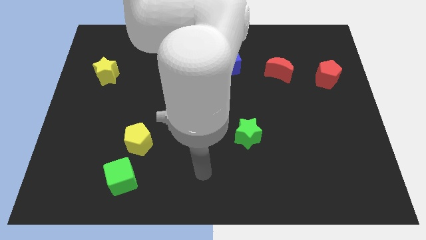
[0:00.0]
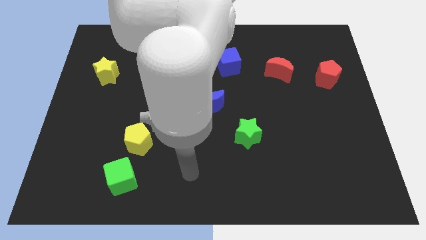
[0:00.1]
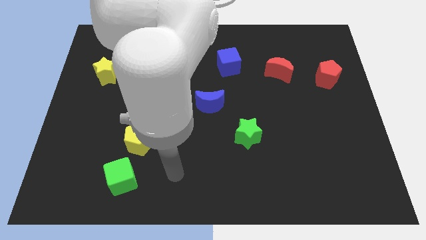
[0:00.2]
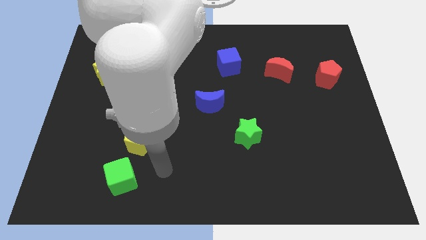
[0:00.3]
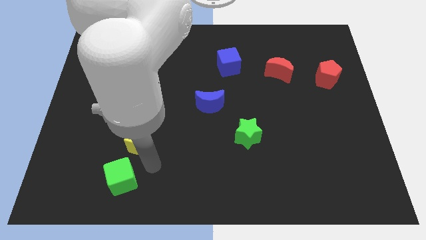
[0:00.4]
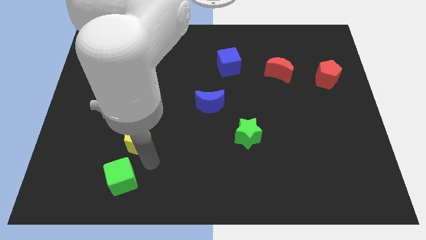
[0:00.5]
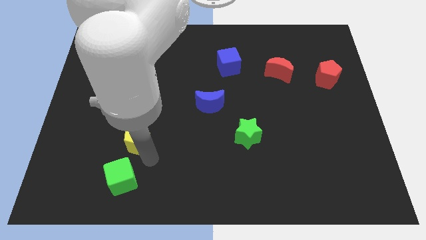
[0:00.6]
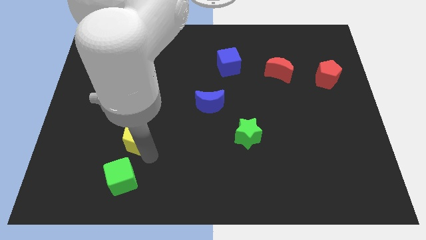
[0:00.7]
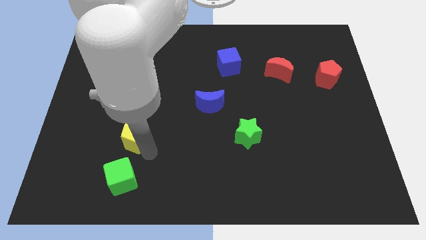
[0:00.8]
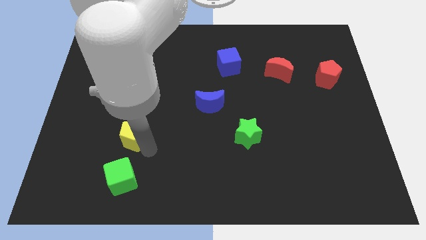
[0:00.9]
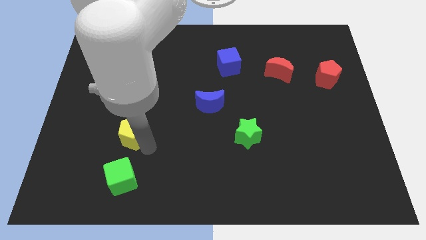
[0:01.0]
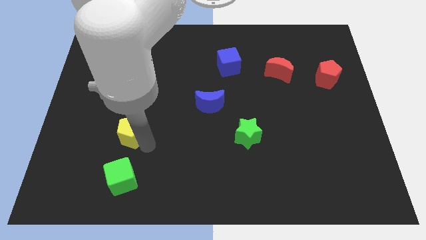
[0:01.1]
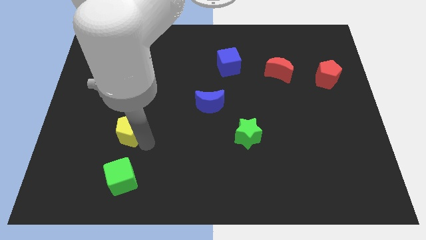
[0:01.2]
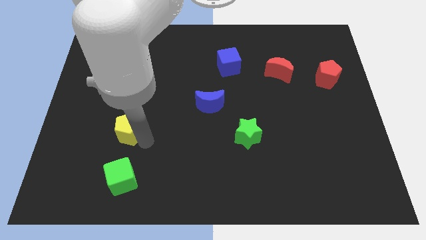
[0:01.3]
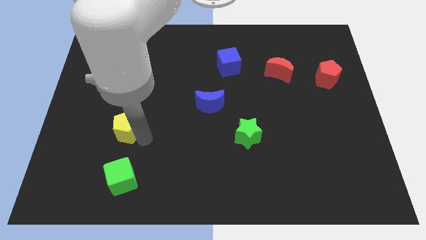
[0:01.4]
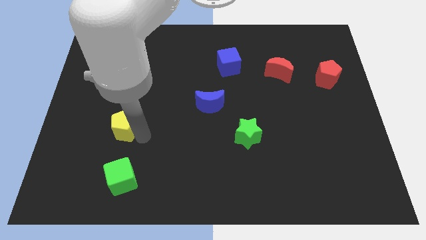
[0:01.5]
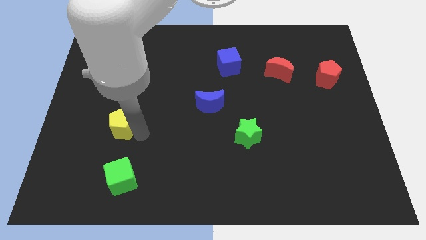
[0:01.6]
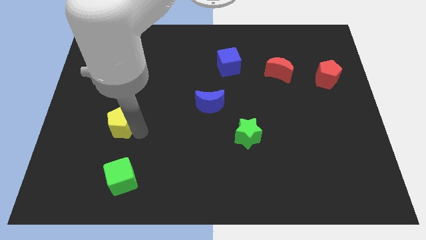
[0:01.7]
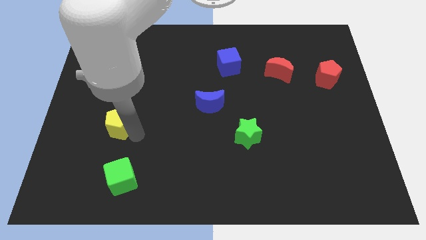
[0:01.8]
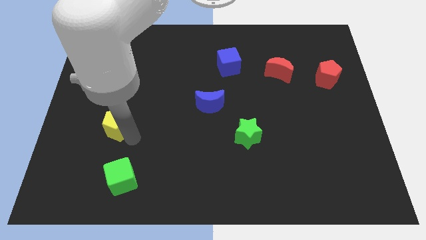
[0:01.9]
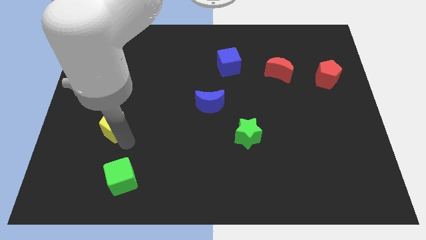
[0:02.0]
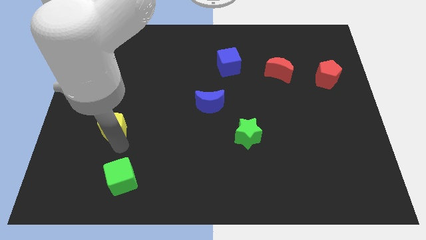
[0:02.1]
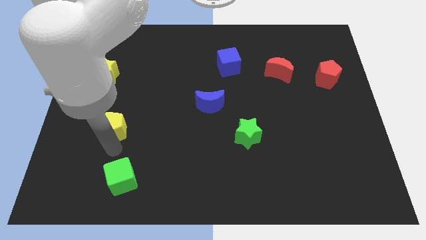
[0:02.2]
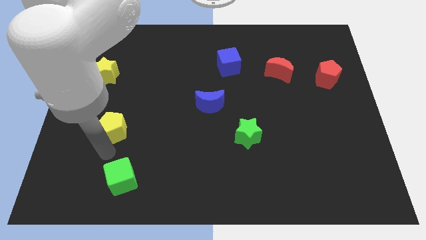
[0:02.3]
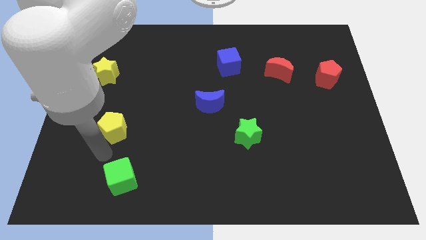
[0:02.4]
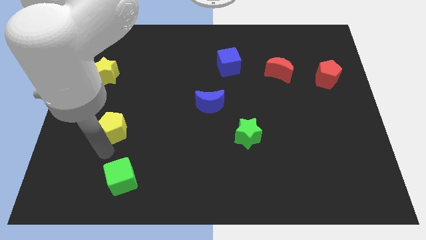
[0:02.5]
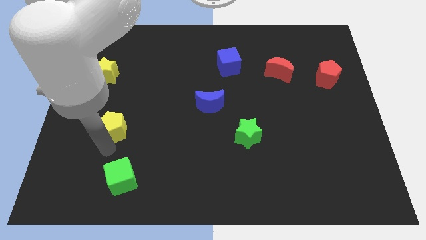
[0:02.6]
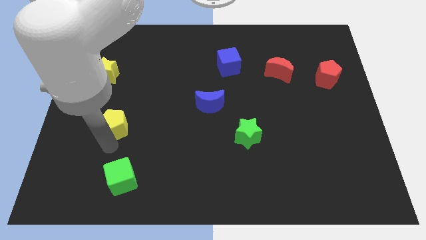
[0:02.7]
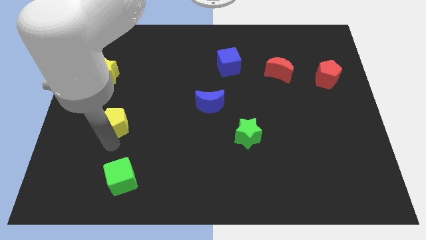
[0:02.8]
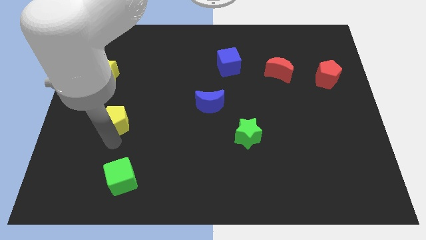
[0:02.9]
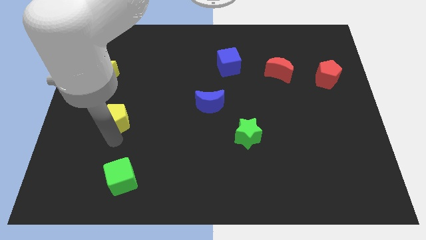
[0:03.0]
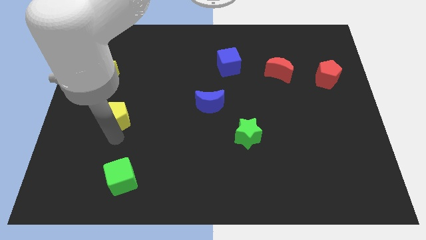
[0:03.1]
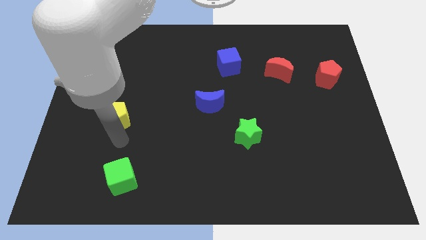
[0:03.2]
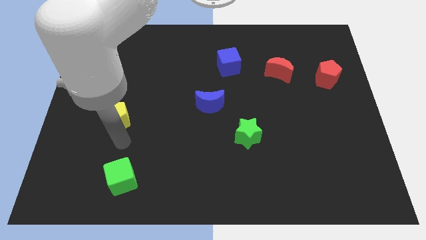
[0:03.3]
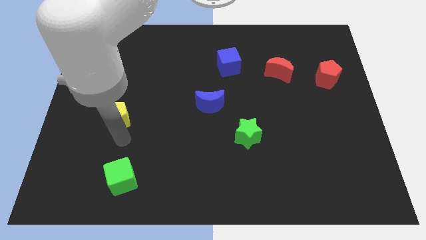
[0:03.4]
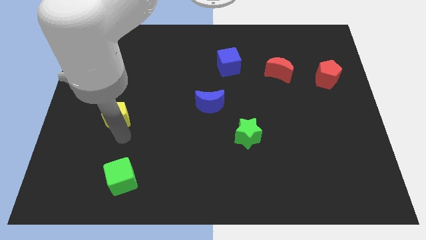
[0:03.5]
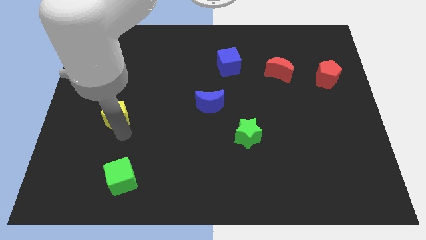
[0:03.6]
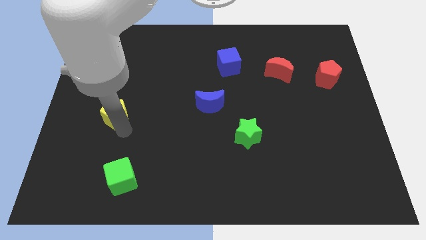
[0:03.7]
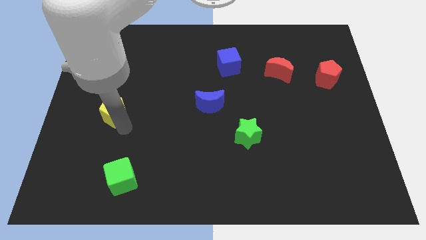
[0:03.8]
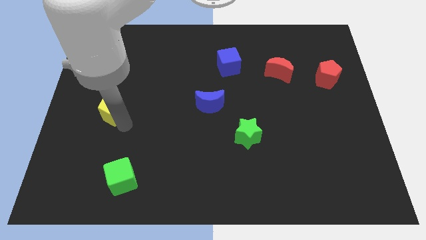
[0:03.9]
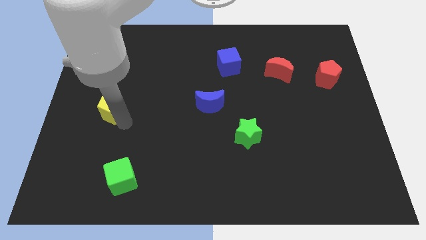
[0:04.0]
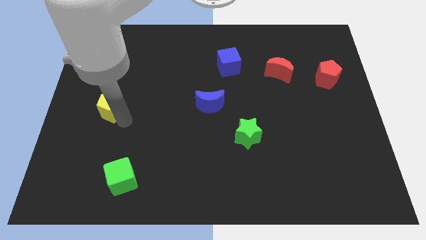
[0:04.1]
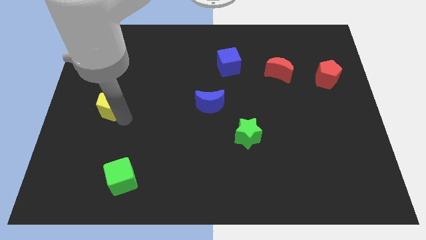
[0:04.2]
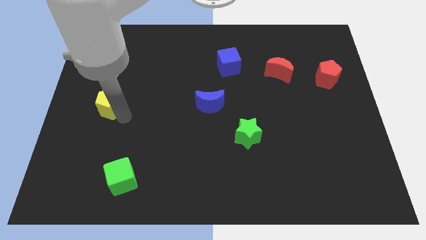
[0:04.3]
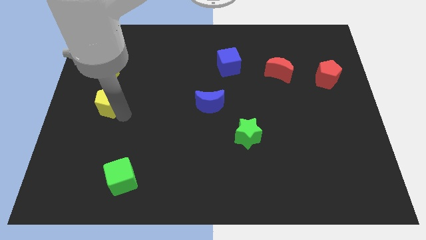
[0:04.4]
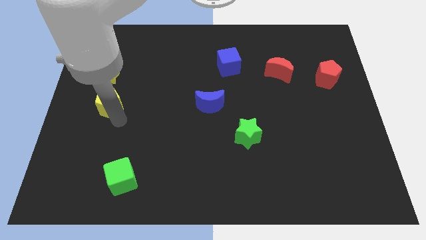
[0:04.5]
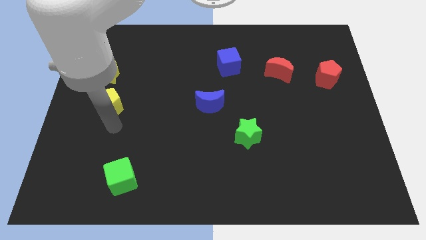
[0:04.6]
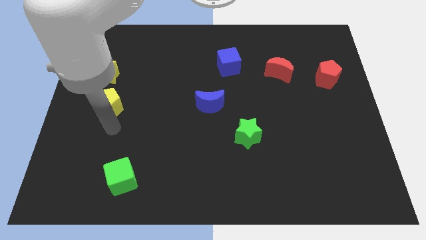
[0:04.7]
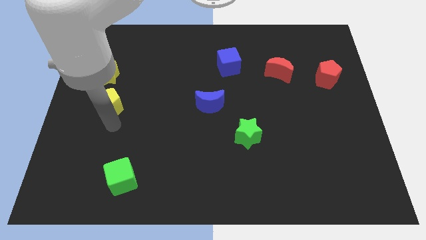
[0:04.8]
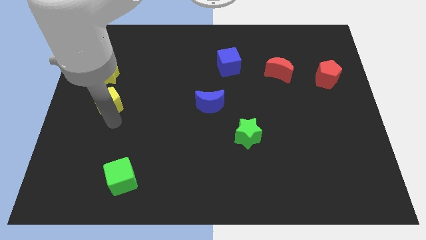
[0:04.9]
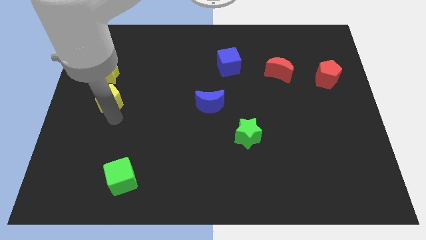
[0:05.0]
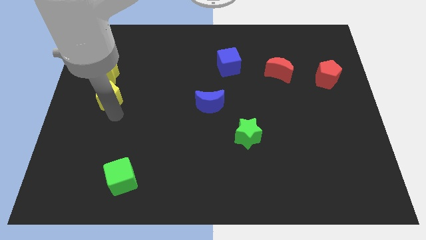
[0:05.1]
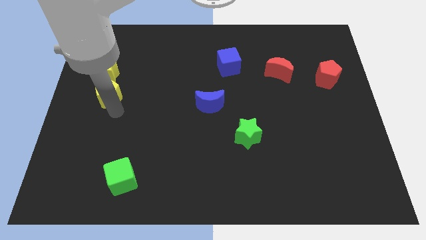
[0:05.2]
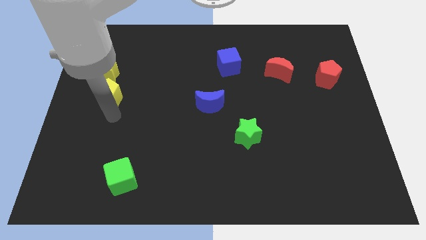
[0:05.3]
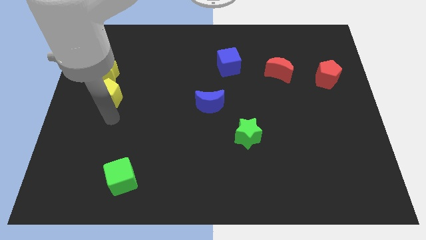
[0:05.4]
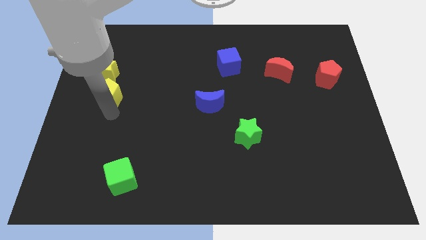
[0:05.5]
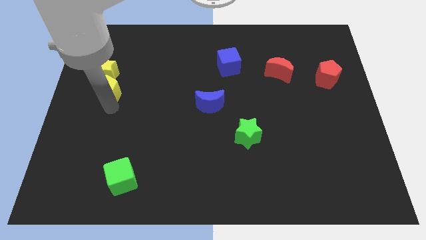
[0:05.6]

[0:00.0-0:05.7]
slide the yellow pentagon close to the yellow star

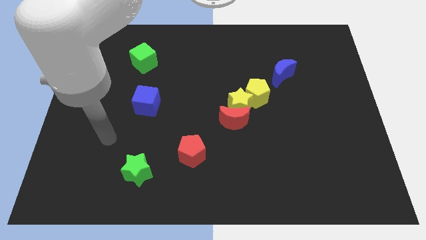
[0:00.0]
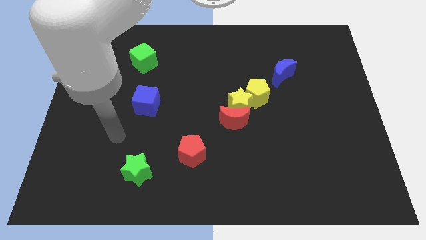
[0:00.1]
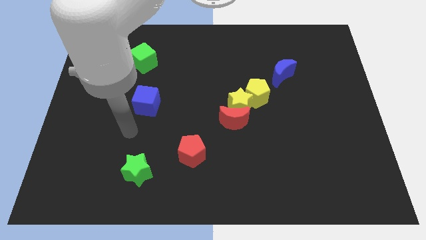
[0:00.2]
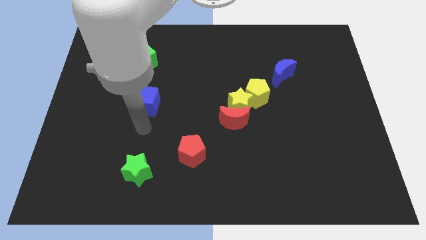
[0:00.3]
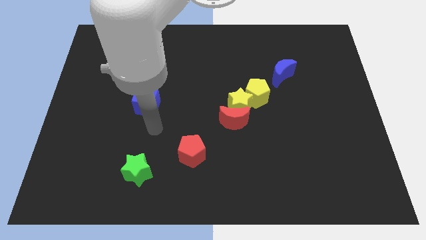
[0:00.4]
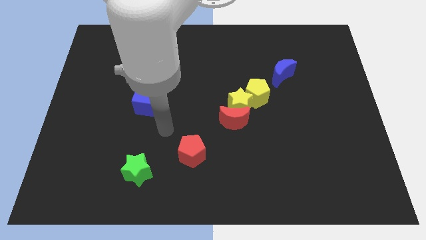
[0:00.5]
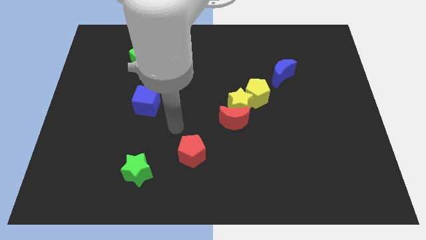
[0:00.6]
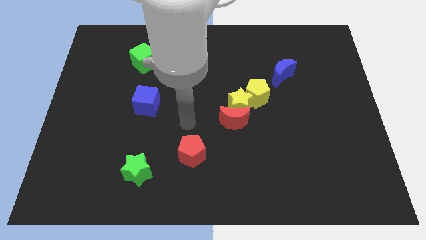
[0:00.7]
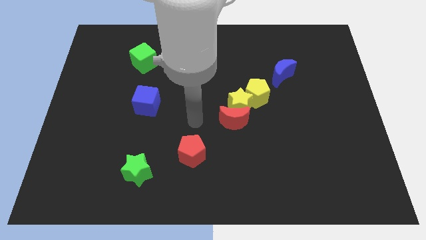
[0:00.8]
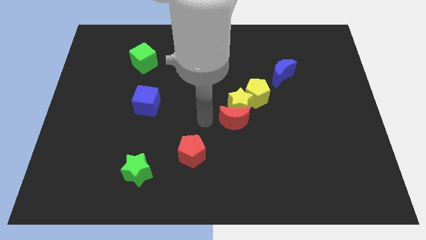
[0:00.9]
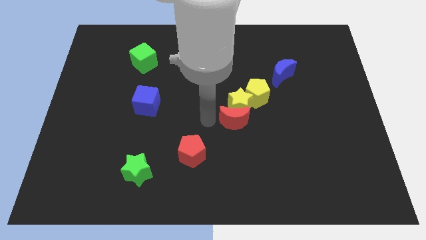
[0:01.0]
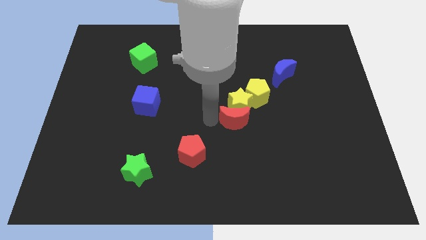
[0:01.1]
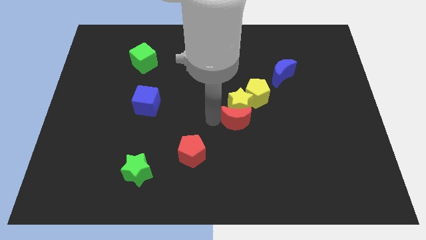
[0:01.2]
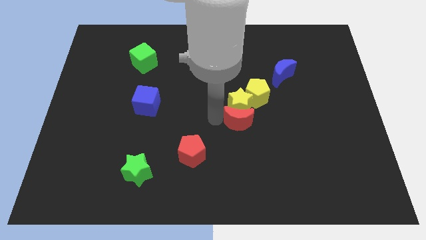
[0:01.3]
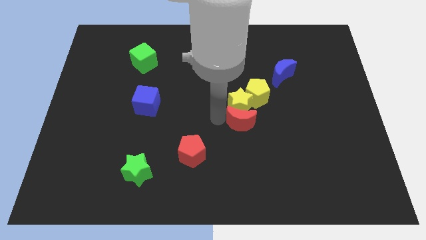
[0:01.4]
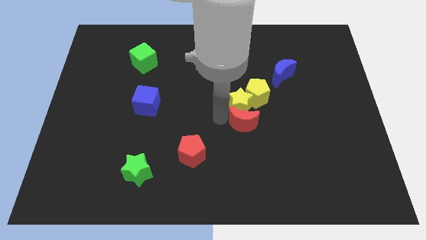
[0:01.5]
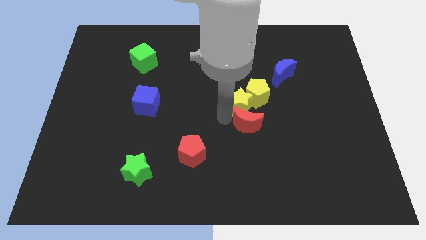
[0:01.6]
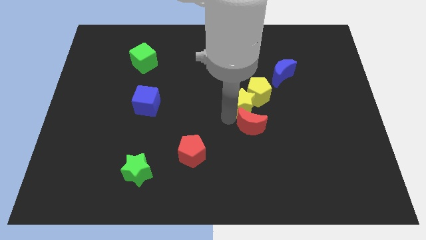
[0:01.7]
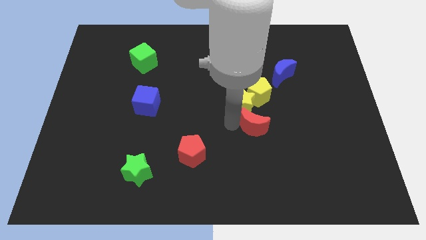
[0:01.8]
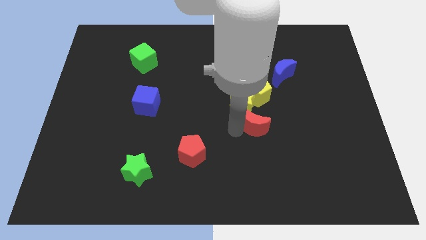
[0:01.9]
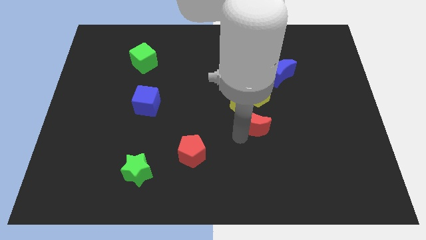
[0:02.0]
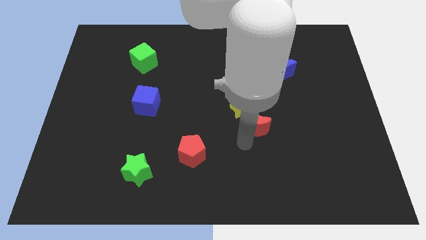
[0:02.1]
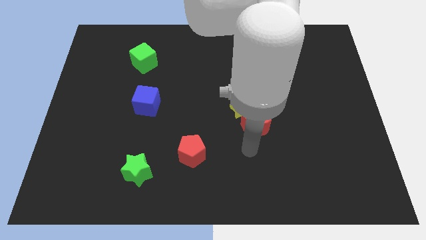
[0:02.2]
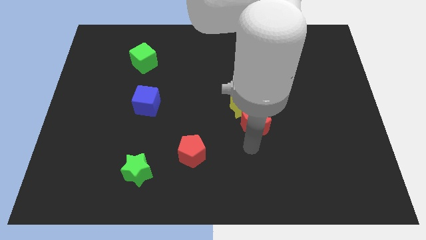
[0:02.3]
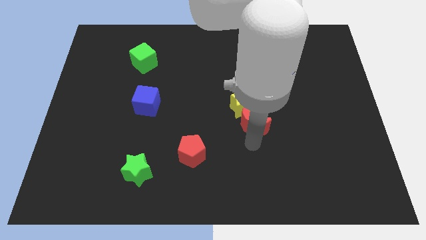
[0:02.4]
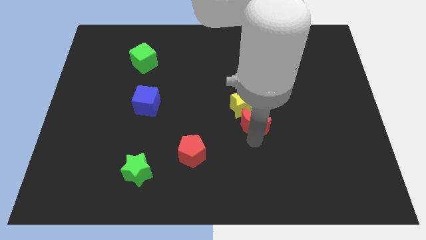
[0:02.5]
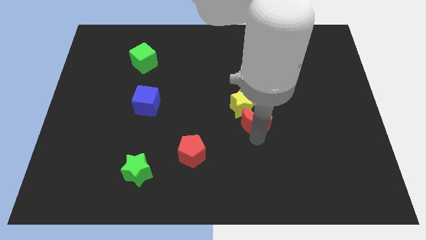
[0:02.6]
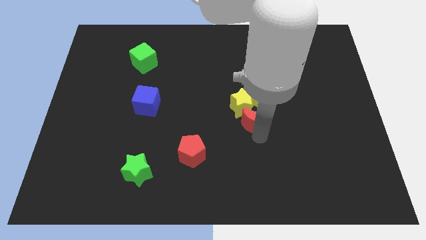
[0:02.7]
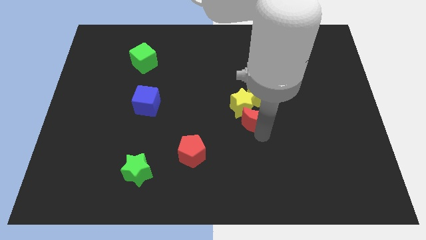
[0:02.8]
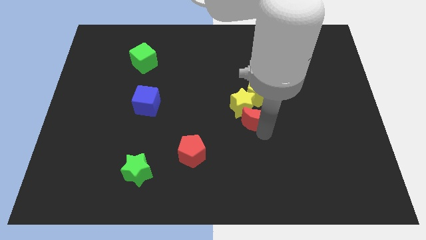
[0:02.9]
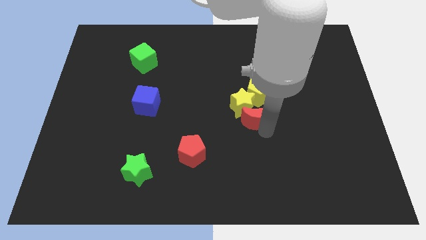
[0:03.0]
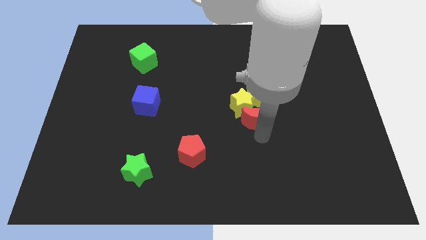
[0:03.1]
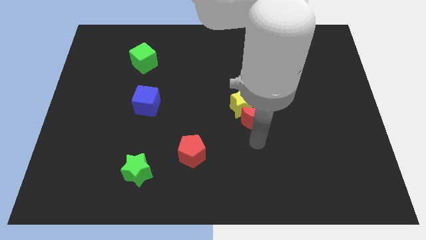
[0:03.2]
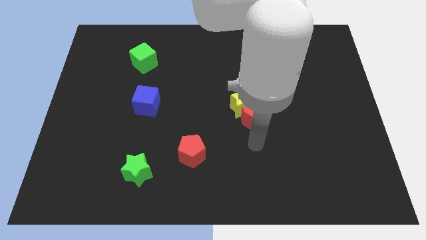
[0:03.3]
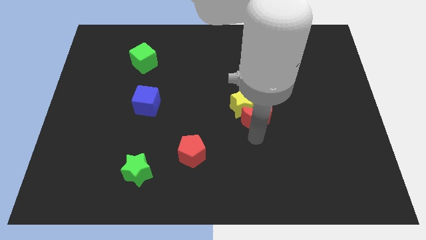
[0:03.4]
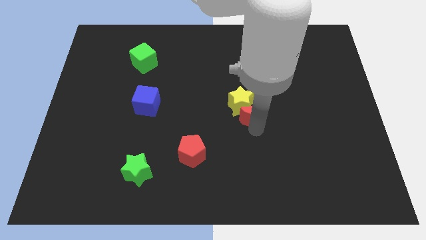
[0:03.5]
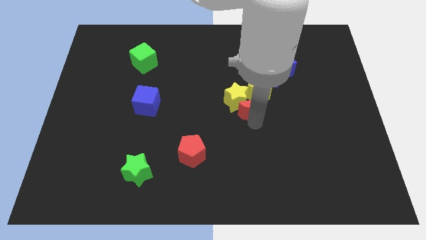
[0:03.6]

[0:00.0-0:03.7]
move the red moon to the yellow pentagon
